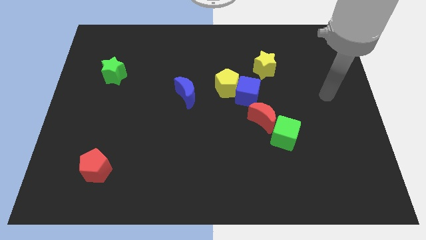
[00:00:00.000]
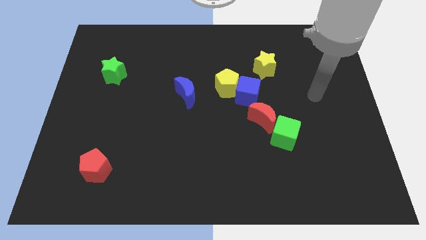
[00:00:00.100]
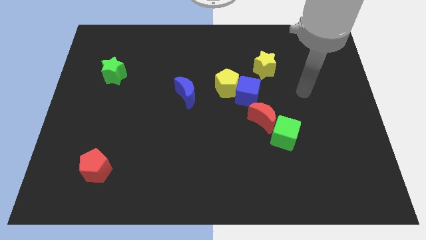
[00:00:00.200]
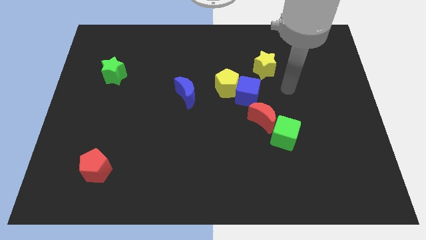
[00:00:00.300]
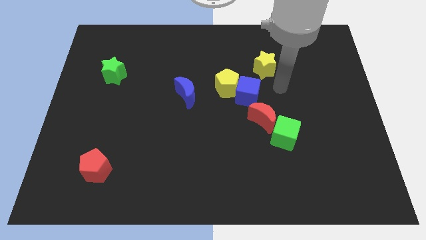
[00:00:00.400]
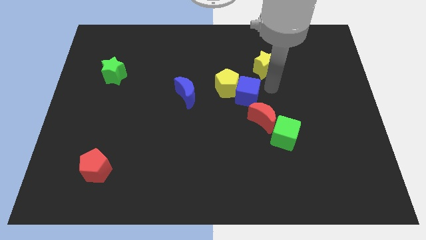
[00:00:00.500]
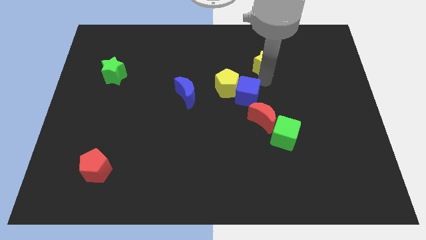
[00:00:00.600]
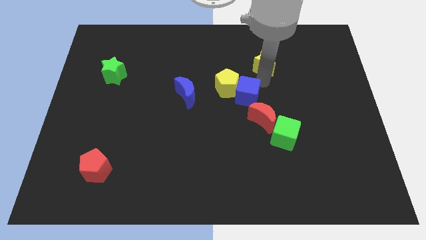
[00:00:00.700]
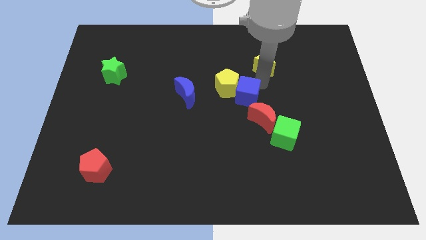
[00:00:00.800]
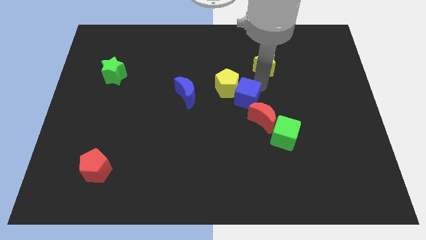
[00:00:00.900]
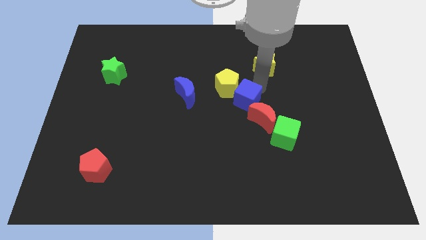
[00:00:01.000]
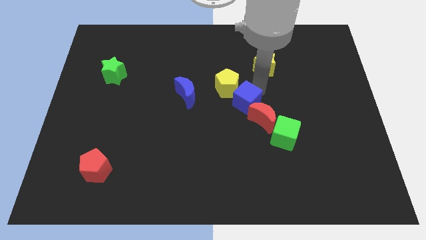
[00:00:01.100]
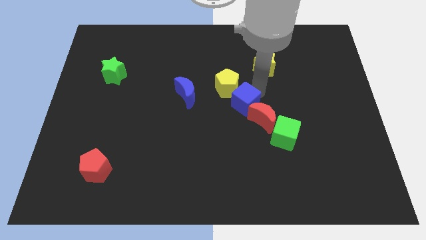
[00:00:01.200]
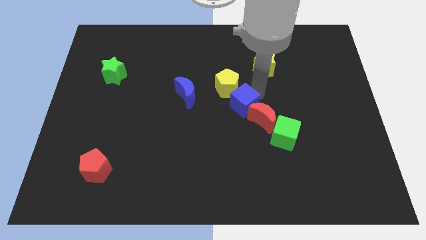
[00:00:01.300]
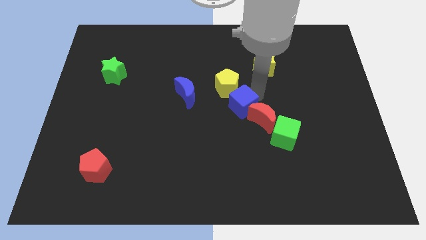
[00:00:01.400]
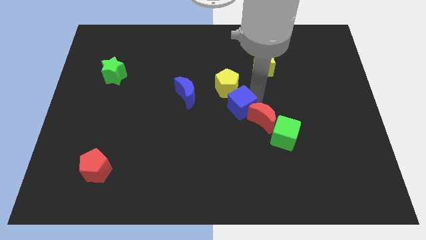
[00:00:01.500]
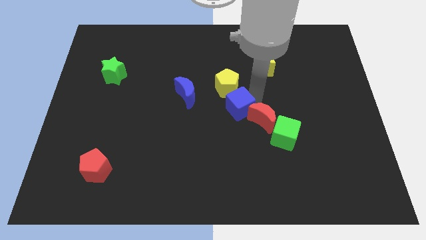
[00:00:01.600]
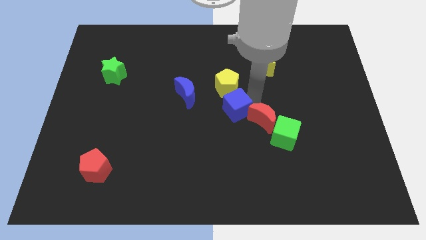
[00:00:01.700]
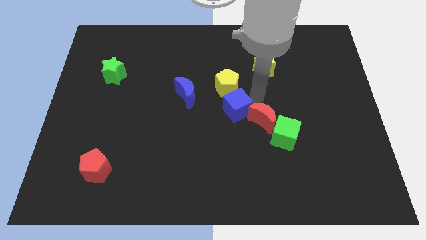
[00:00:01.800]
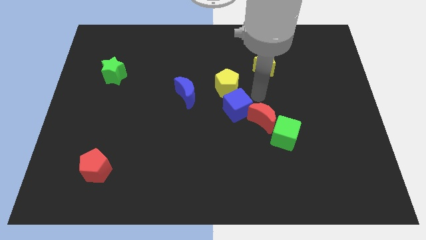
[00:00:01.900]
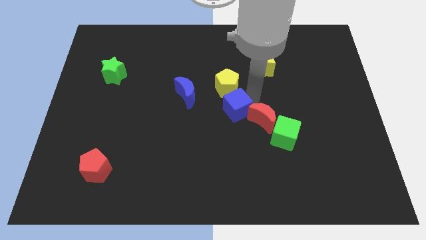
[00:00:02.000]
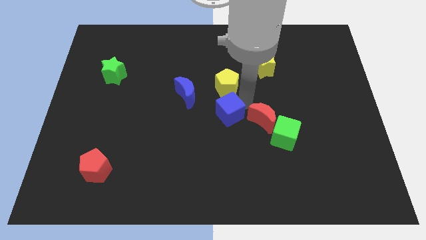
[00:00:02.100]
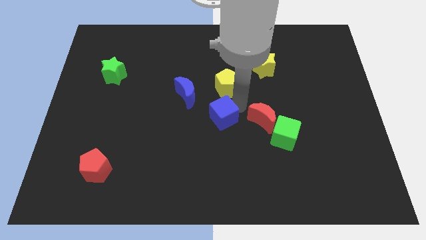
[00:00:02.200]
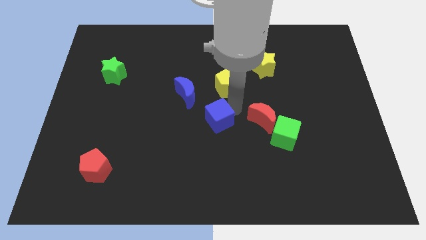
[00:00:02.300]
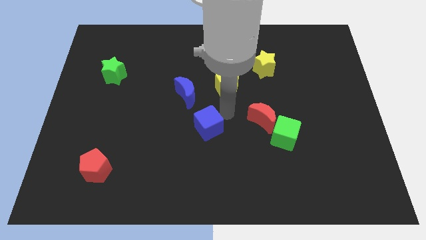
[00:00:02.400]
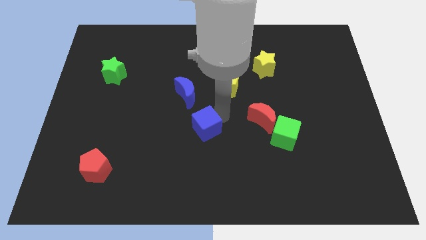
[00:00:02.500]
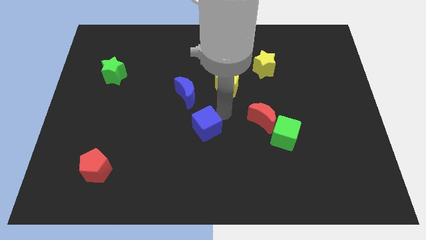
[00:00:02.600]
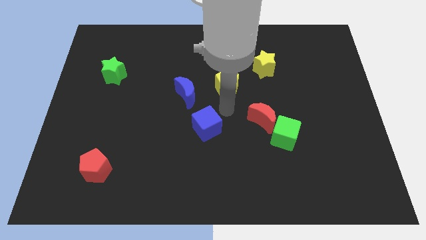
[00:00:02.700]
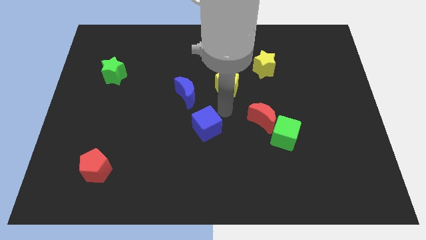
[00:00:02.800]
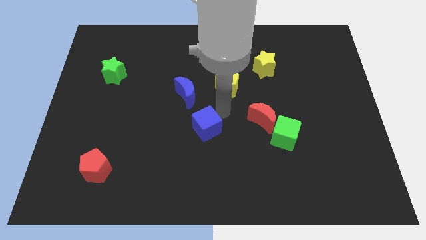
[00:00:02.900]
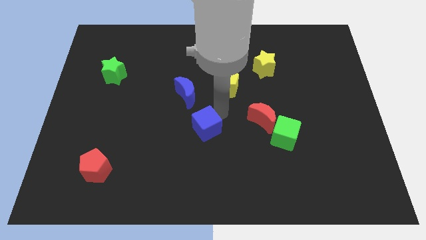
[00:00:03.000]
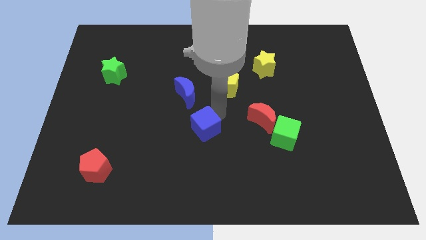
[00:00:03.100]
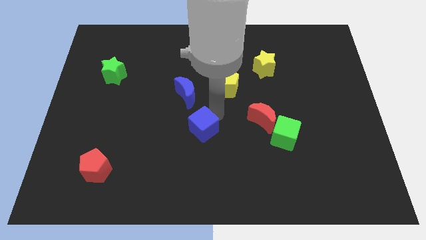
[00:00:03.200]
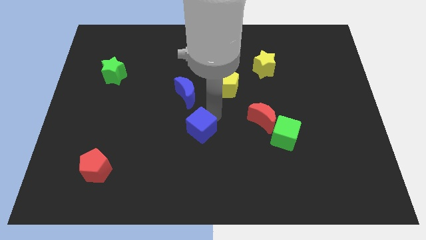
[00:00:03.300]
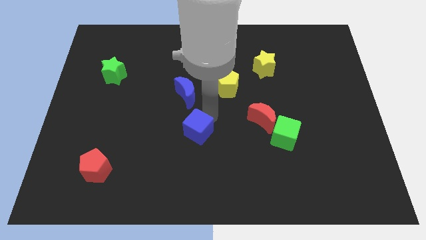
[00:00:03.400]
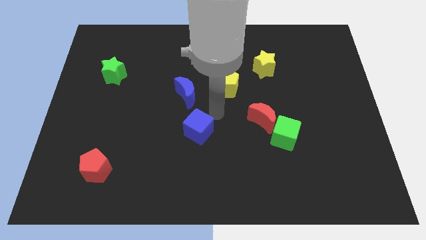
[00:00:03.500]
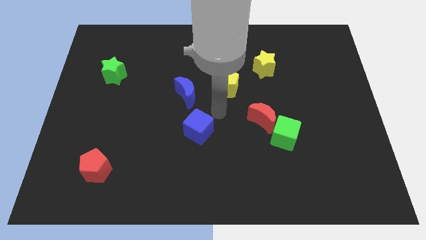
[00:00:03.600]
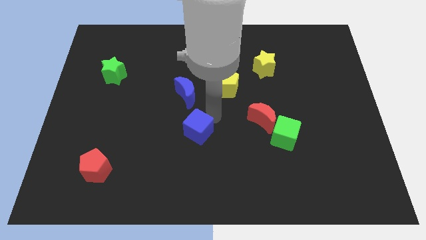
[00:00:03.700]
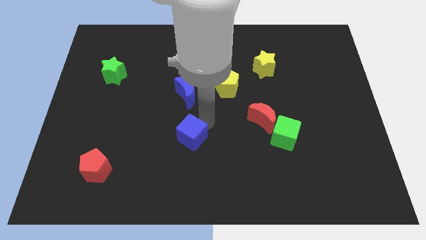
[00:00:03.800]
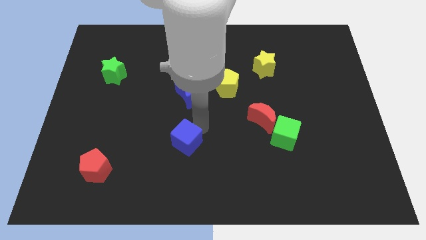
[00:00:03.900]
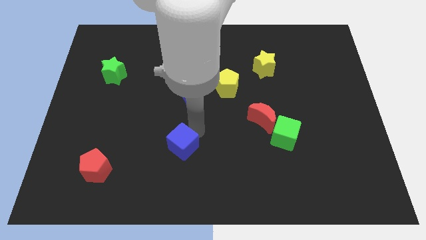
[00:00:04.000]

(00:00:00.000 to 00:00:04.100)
move the blue cube downwards and then left

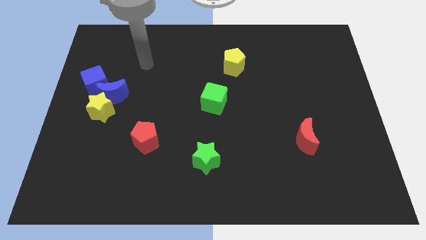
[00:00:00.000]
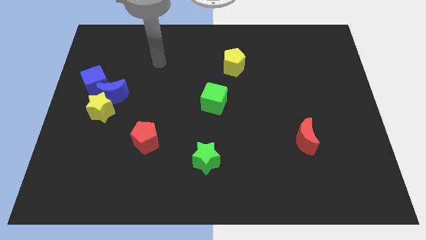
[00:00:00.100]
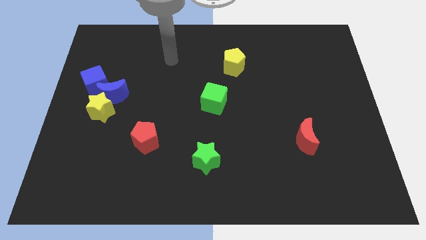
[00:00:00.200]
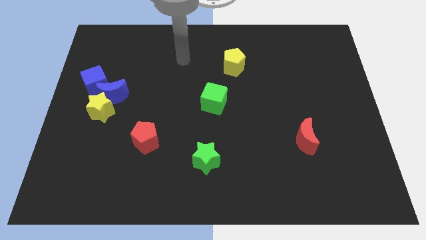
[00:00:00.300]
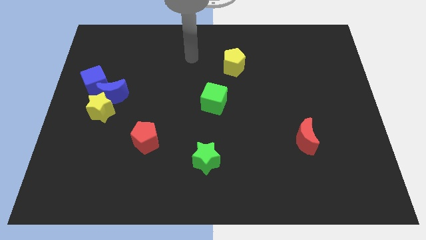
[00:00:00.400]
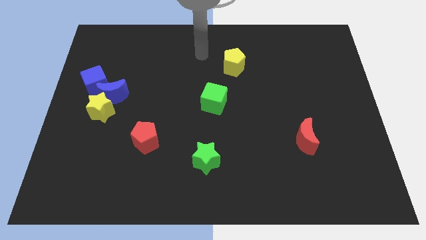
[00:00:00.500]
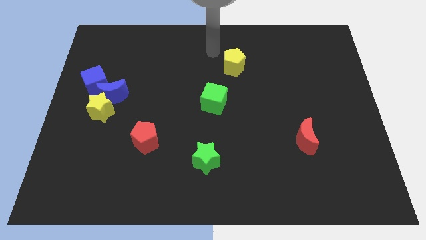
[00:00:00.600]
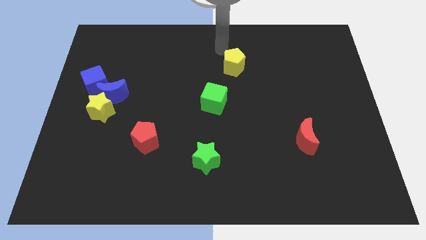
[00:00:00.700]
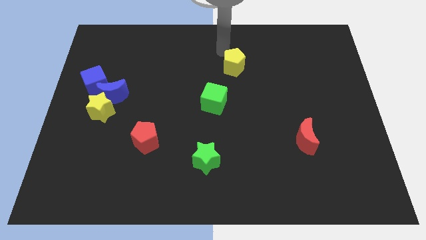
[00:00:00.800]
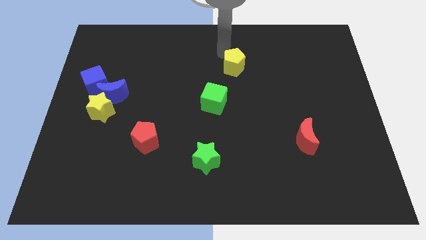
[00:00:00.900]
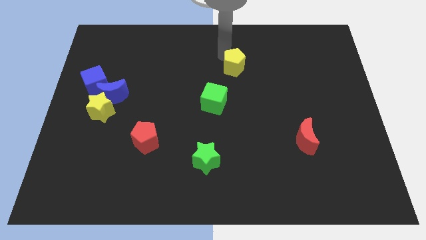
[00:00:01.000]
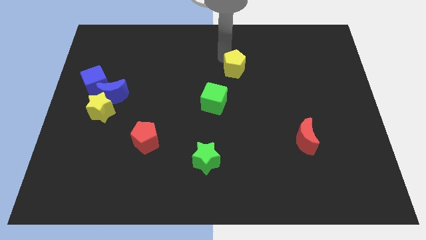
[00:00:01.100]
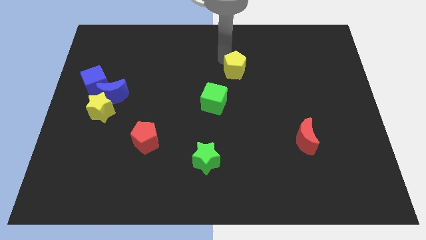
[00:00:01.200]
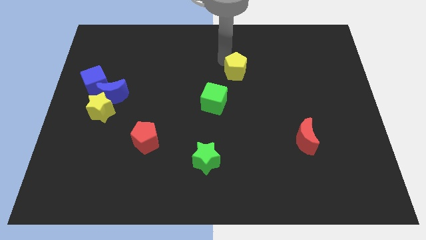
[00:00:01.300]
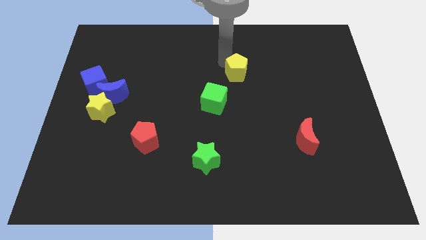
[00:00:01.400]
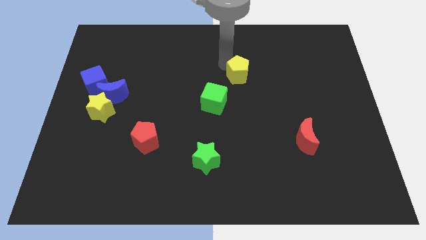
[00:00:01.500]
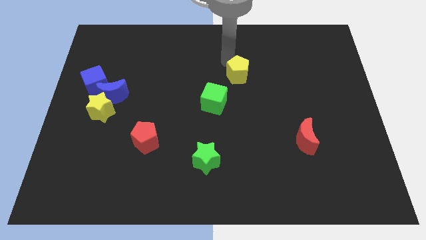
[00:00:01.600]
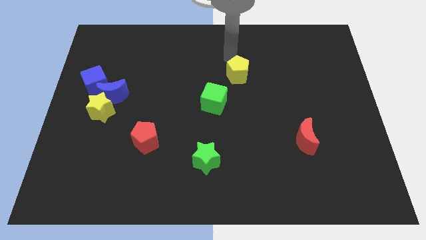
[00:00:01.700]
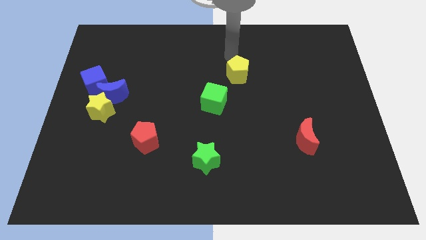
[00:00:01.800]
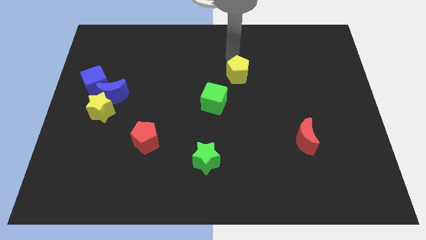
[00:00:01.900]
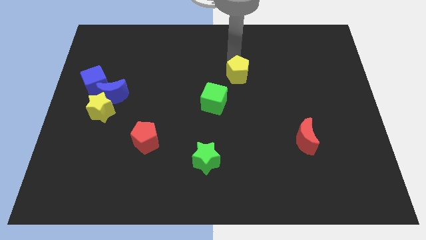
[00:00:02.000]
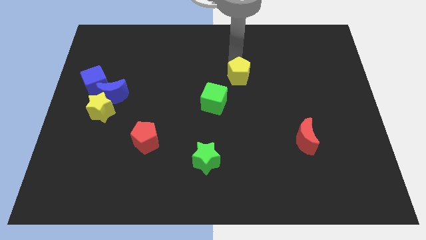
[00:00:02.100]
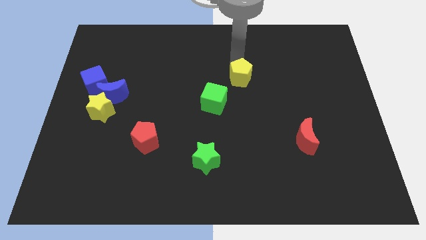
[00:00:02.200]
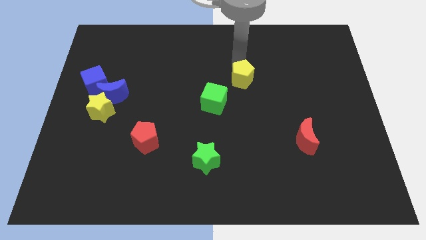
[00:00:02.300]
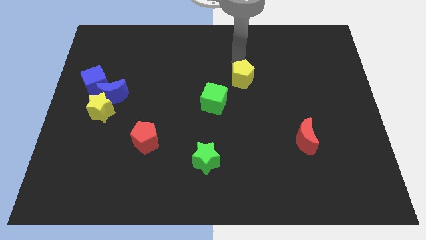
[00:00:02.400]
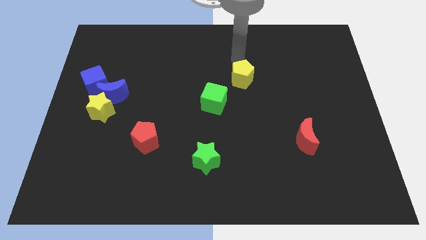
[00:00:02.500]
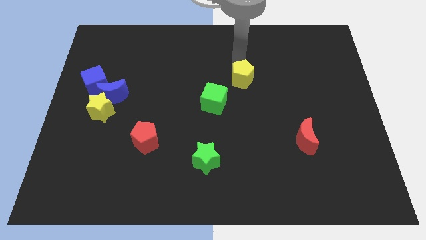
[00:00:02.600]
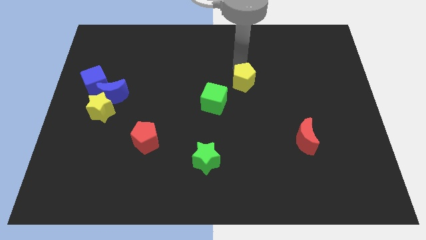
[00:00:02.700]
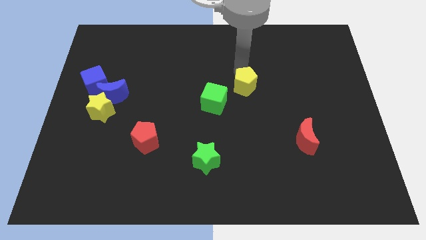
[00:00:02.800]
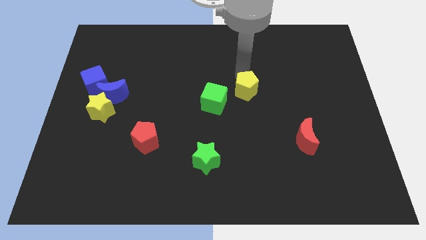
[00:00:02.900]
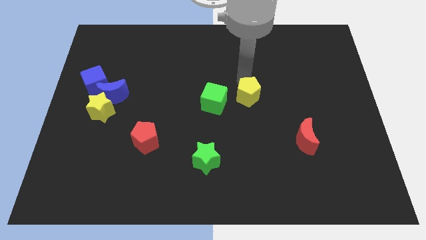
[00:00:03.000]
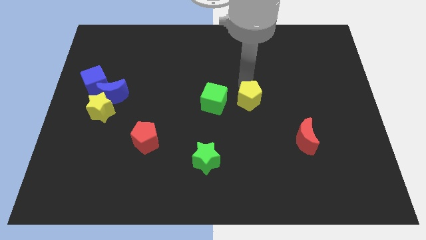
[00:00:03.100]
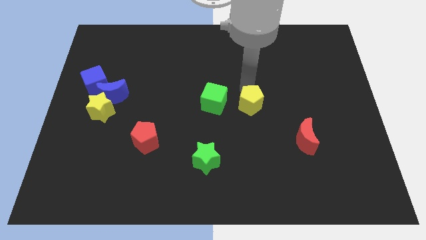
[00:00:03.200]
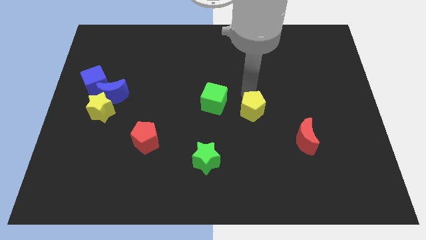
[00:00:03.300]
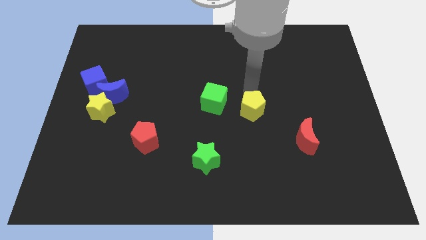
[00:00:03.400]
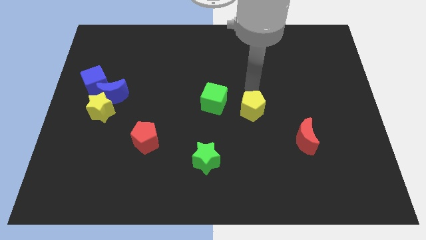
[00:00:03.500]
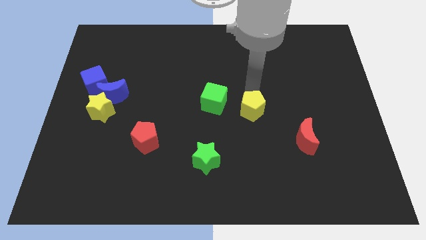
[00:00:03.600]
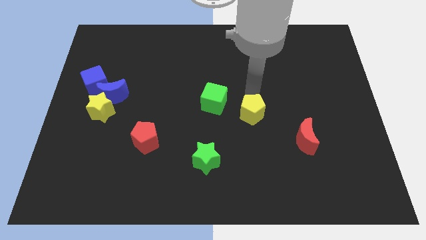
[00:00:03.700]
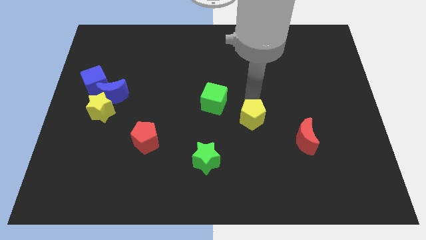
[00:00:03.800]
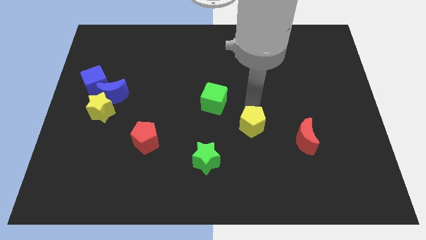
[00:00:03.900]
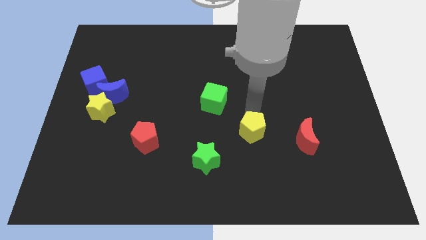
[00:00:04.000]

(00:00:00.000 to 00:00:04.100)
move the yellow pentagon downwards
